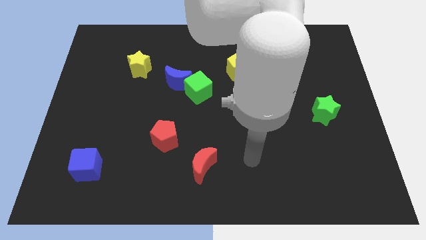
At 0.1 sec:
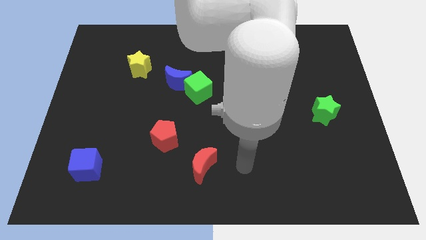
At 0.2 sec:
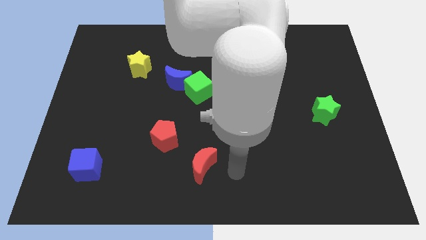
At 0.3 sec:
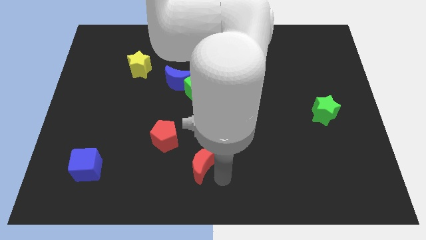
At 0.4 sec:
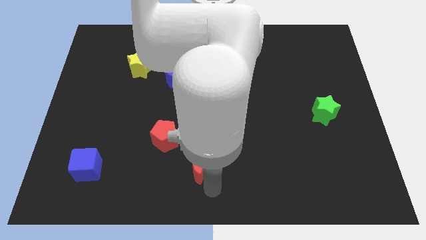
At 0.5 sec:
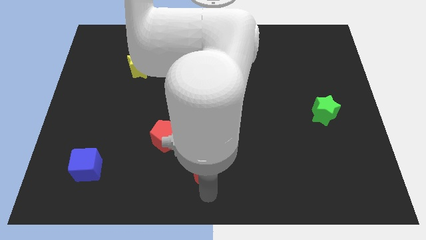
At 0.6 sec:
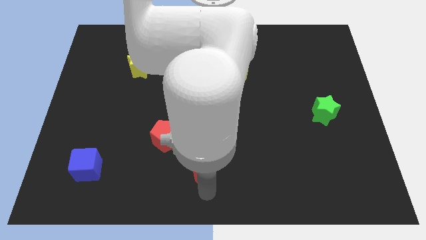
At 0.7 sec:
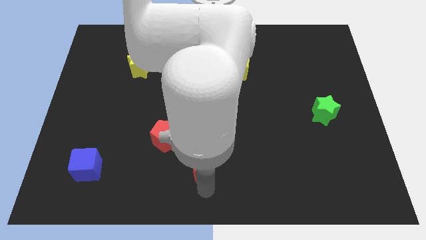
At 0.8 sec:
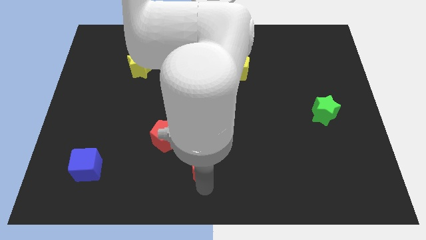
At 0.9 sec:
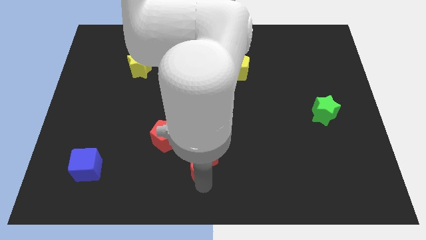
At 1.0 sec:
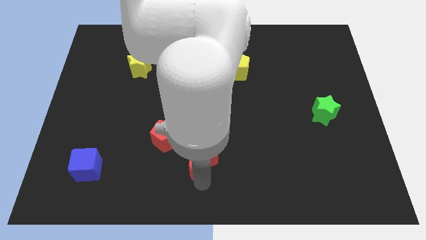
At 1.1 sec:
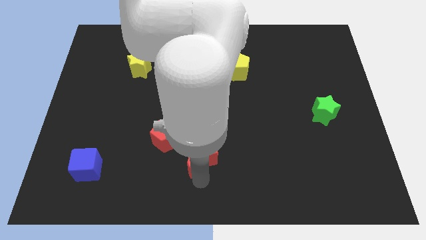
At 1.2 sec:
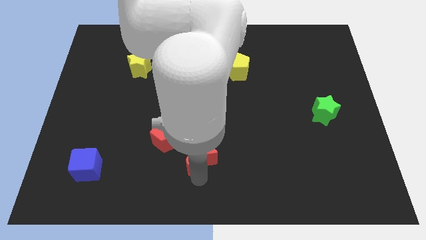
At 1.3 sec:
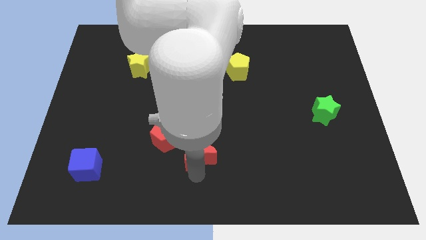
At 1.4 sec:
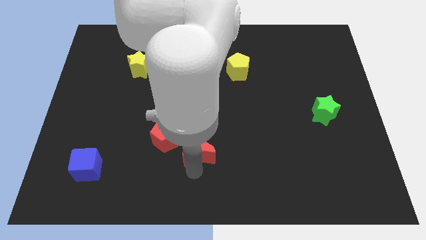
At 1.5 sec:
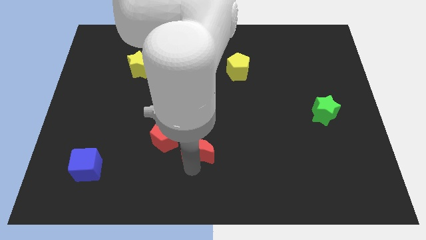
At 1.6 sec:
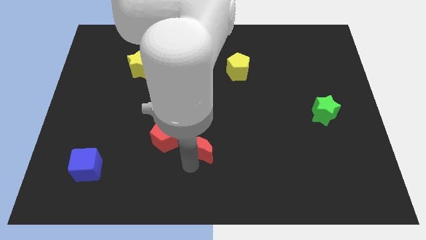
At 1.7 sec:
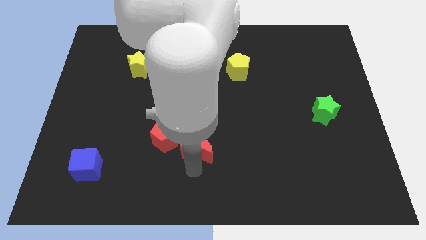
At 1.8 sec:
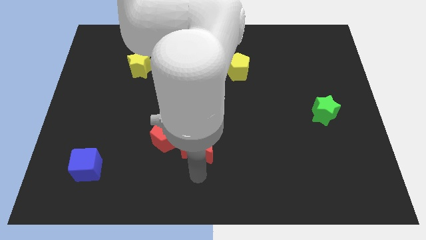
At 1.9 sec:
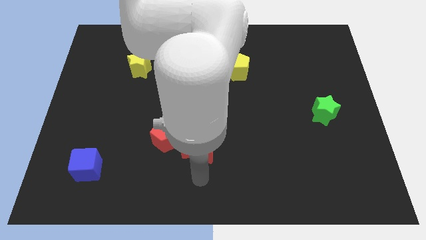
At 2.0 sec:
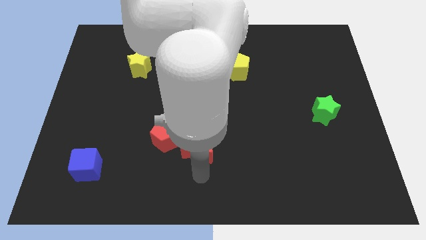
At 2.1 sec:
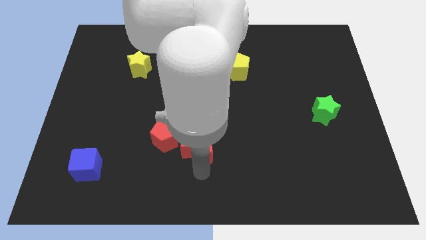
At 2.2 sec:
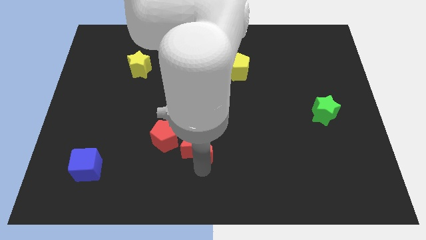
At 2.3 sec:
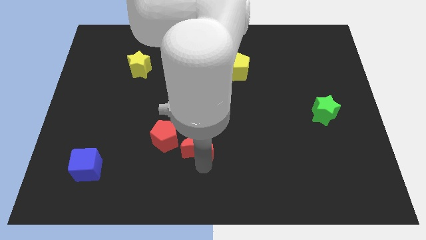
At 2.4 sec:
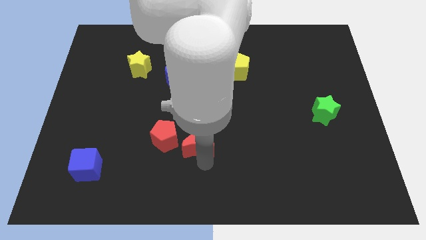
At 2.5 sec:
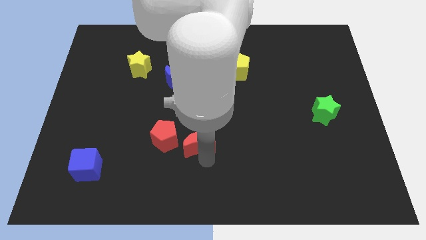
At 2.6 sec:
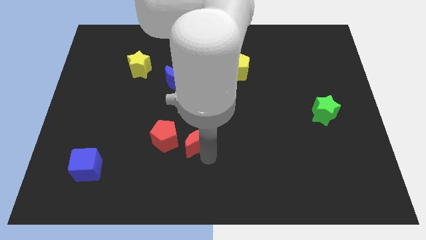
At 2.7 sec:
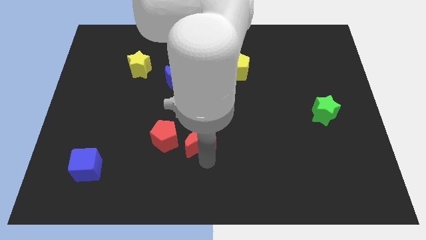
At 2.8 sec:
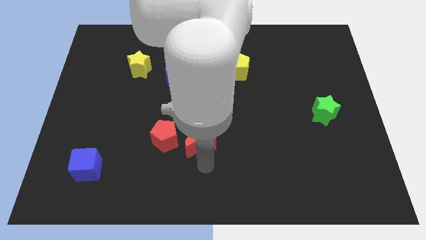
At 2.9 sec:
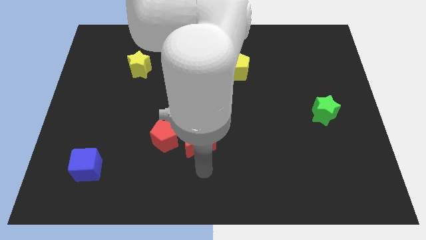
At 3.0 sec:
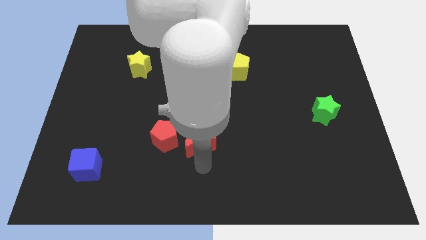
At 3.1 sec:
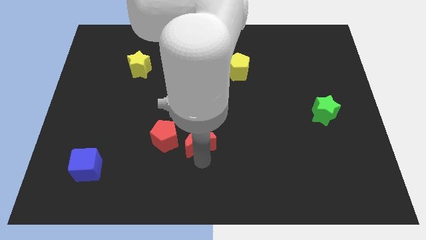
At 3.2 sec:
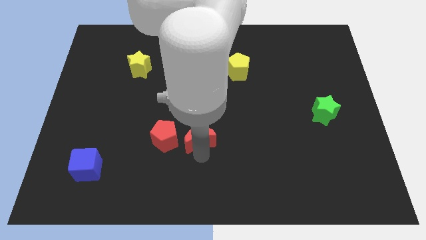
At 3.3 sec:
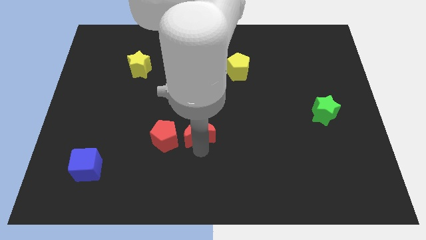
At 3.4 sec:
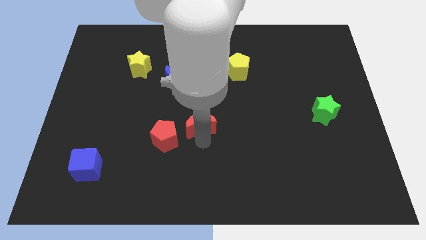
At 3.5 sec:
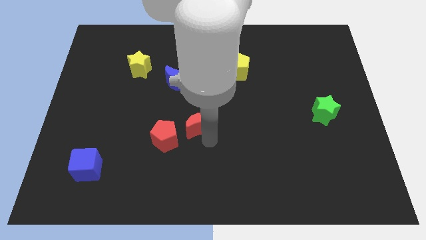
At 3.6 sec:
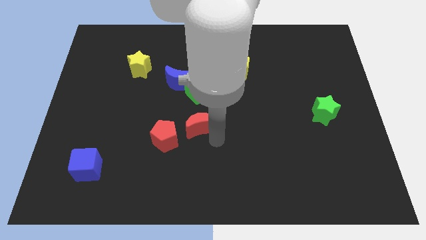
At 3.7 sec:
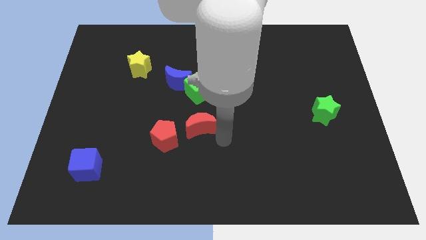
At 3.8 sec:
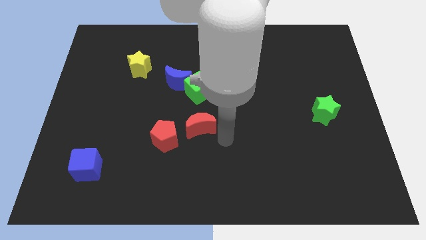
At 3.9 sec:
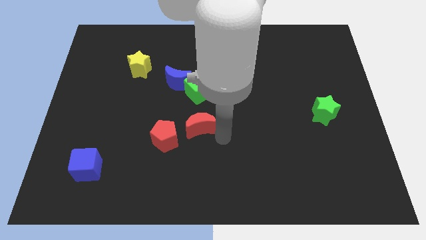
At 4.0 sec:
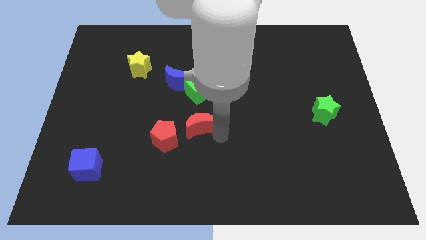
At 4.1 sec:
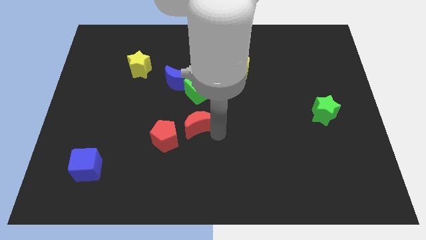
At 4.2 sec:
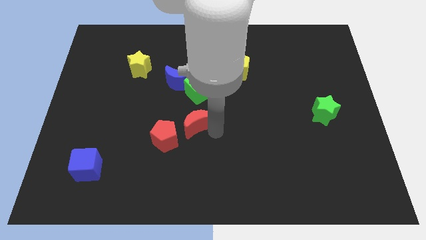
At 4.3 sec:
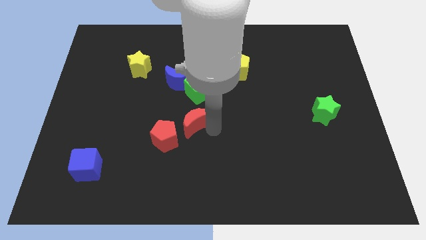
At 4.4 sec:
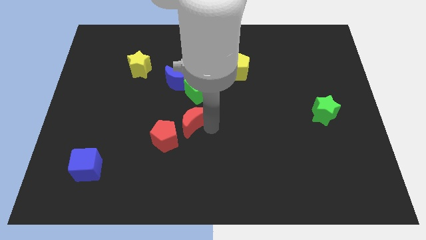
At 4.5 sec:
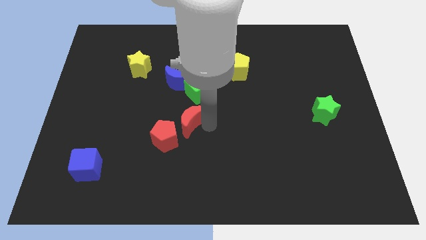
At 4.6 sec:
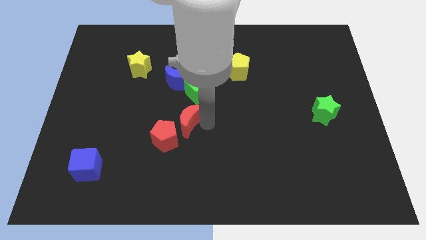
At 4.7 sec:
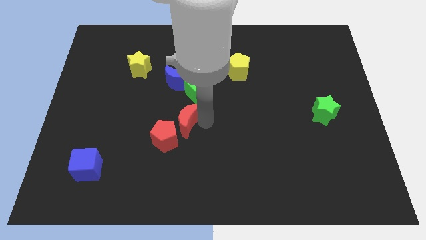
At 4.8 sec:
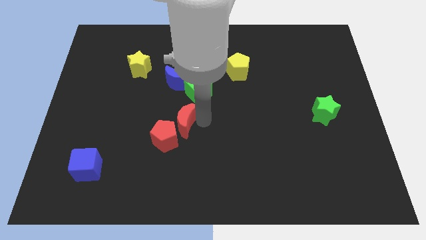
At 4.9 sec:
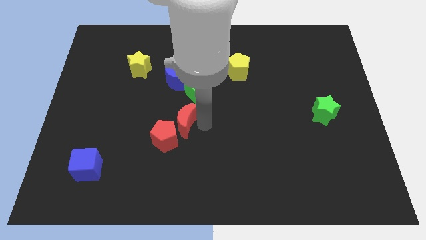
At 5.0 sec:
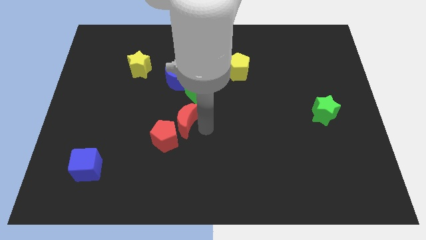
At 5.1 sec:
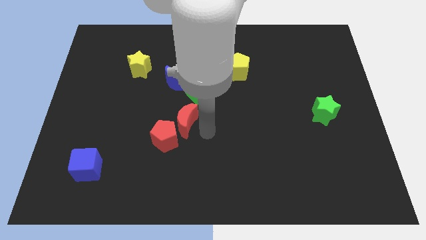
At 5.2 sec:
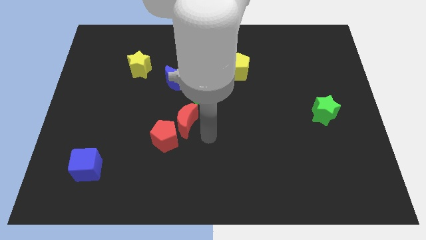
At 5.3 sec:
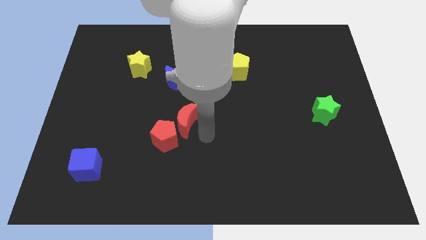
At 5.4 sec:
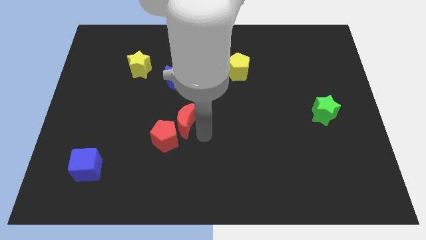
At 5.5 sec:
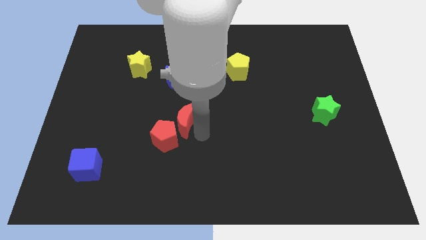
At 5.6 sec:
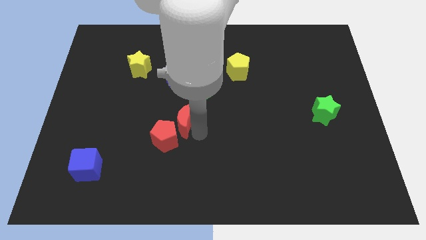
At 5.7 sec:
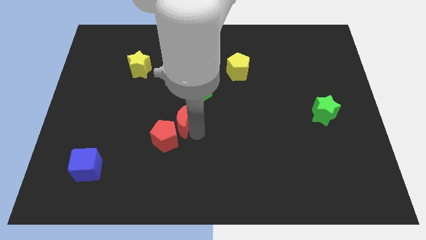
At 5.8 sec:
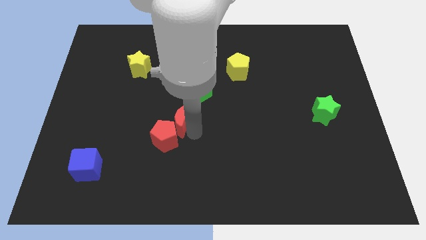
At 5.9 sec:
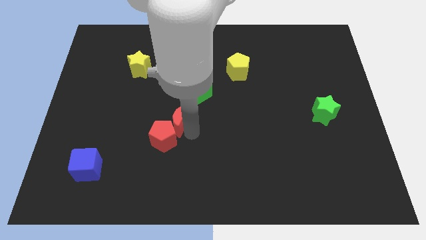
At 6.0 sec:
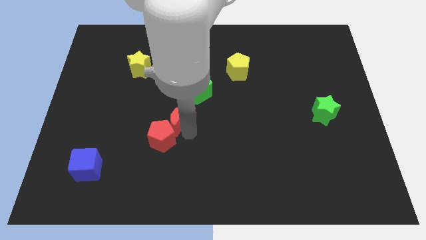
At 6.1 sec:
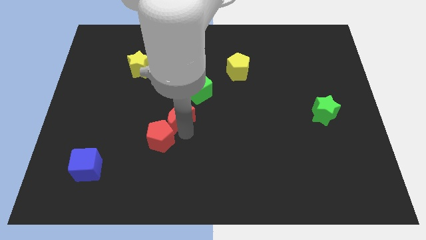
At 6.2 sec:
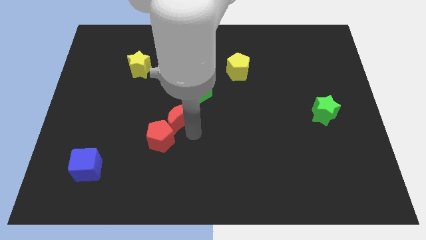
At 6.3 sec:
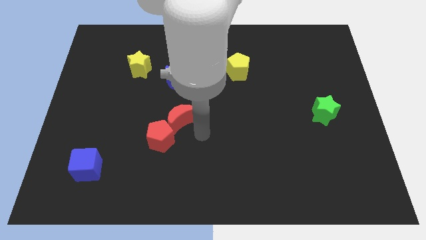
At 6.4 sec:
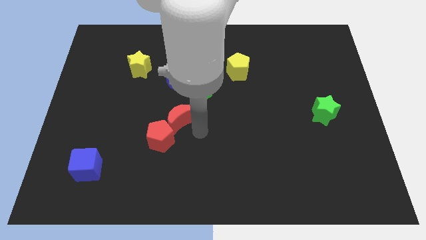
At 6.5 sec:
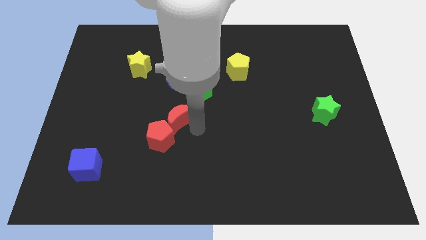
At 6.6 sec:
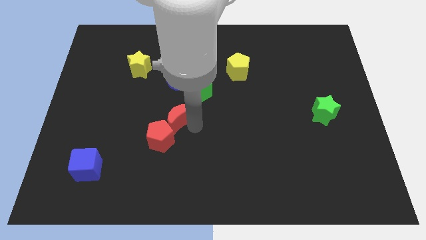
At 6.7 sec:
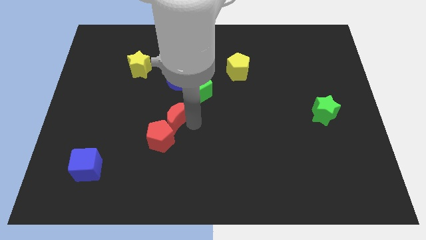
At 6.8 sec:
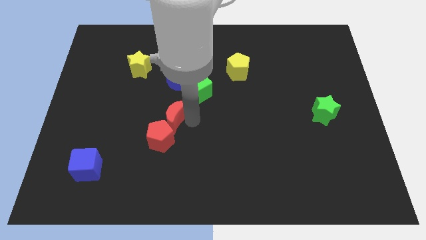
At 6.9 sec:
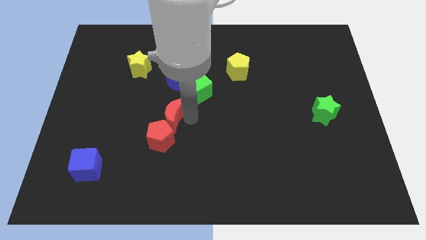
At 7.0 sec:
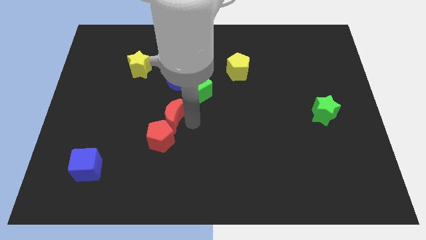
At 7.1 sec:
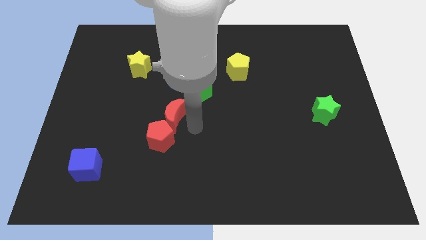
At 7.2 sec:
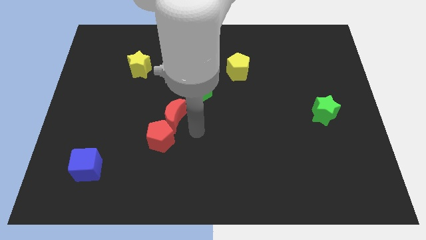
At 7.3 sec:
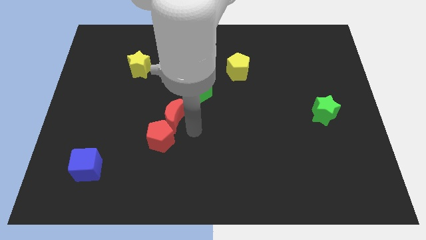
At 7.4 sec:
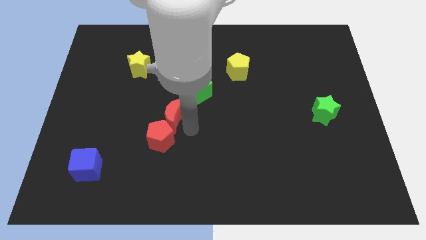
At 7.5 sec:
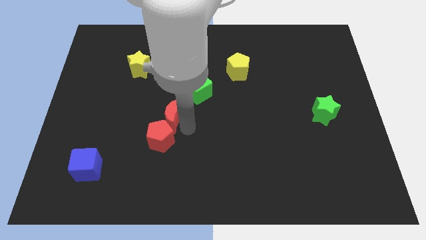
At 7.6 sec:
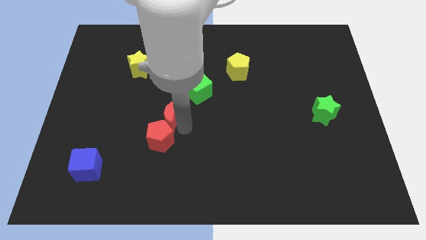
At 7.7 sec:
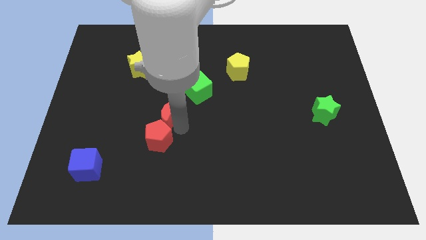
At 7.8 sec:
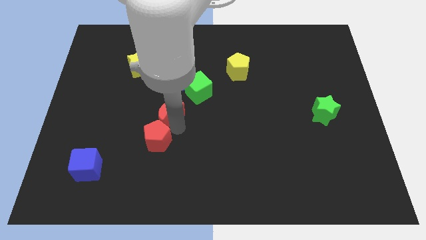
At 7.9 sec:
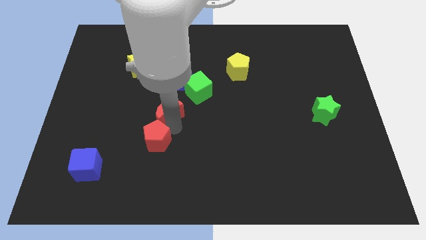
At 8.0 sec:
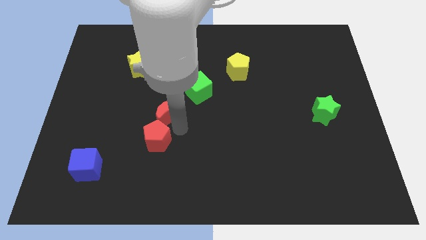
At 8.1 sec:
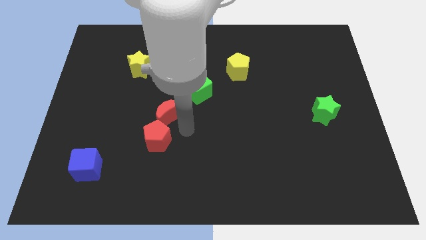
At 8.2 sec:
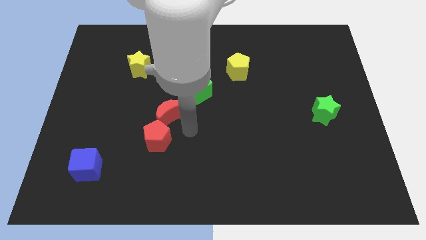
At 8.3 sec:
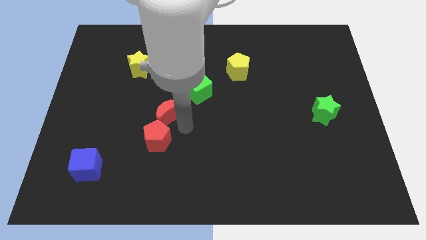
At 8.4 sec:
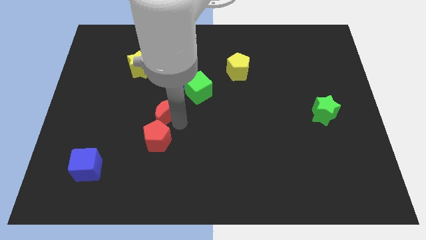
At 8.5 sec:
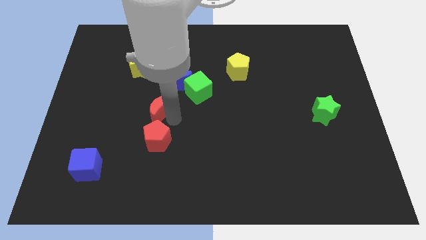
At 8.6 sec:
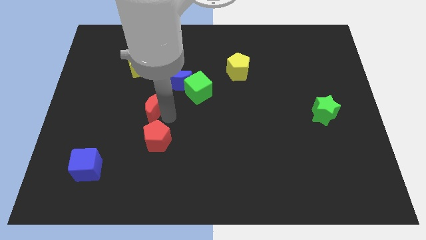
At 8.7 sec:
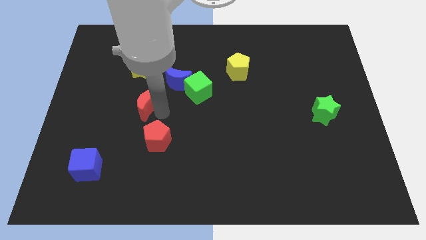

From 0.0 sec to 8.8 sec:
slide the red moon diagonally up and to the left
